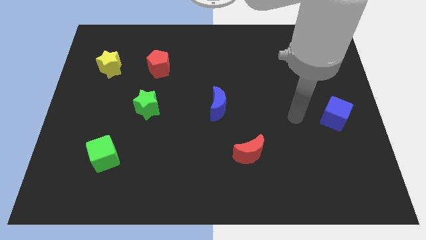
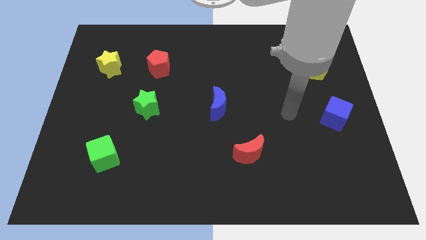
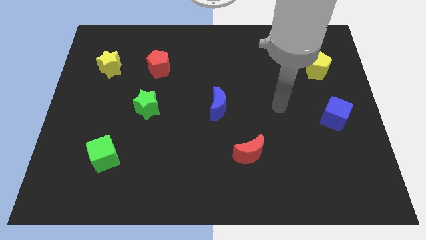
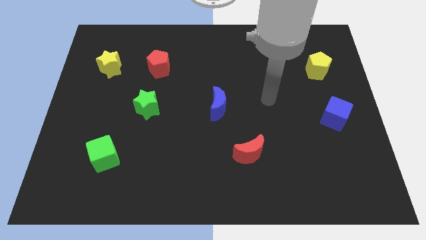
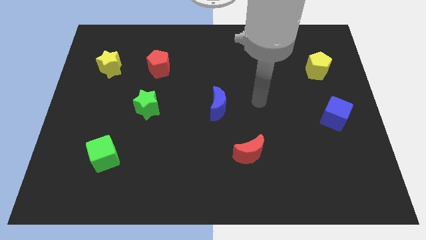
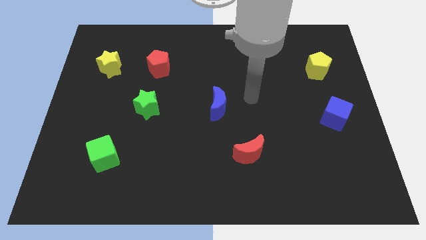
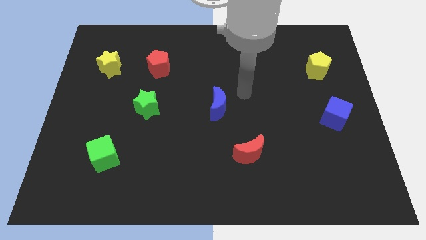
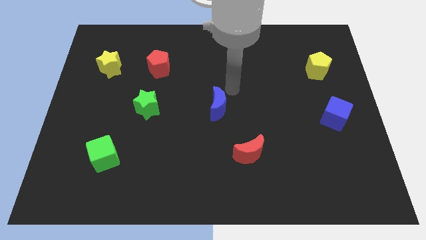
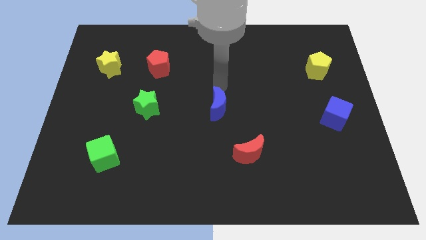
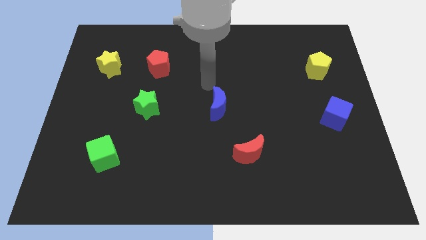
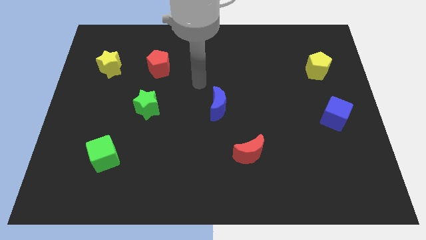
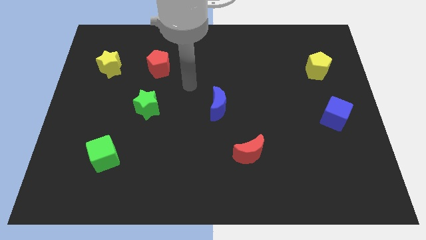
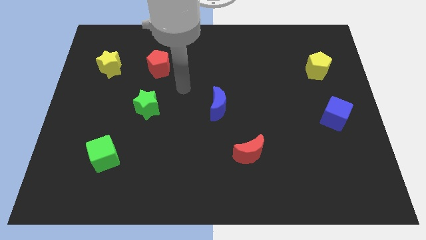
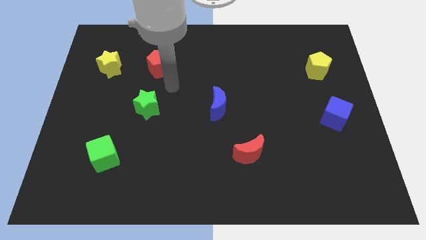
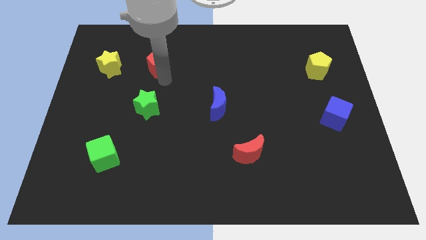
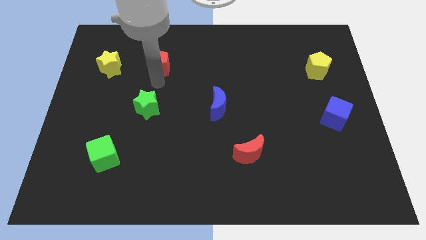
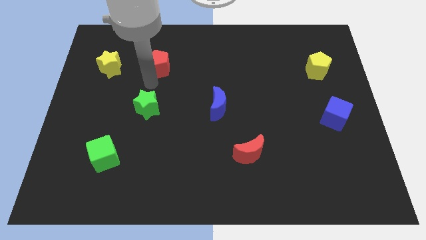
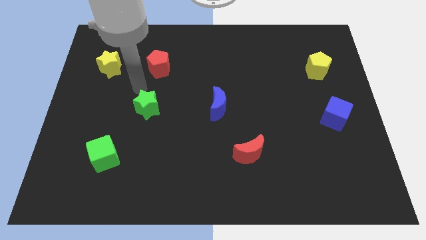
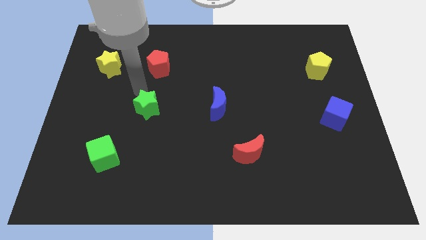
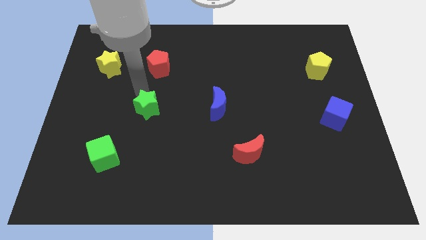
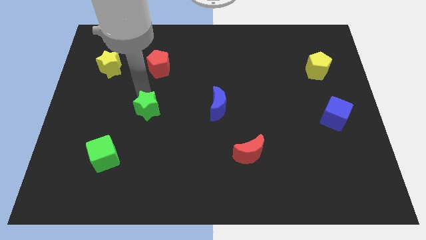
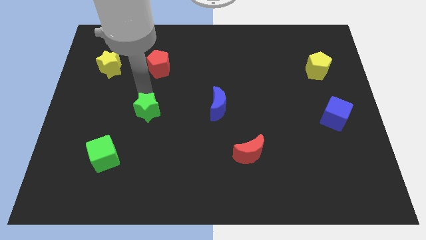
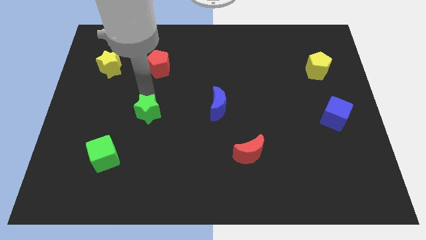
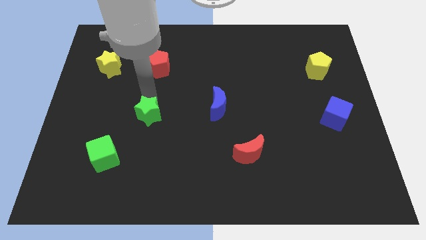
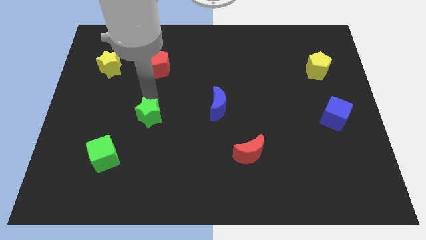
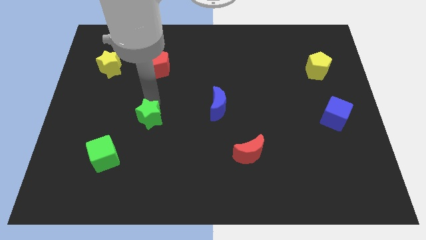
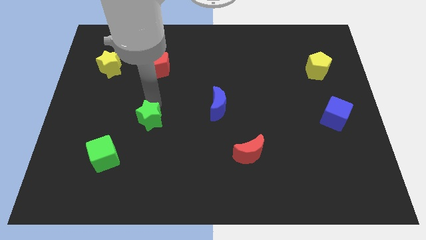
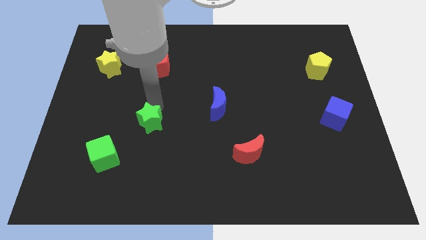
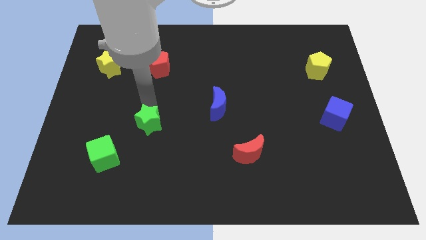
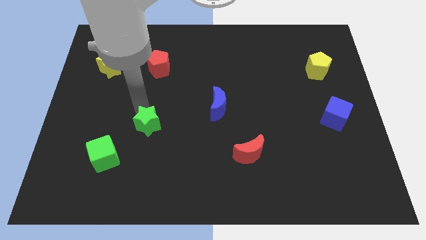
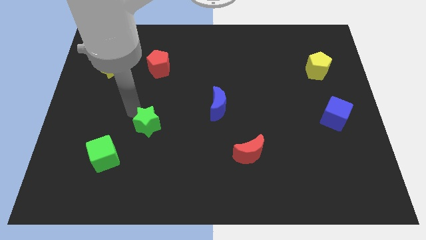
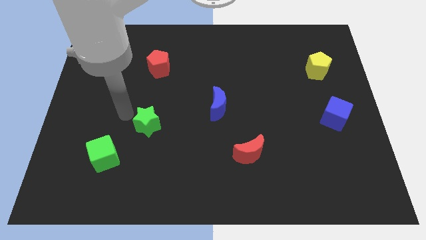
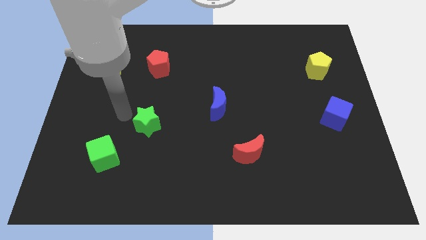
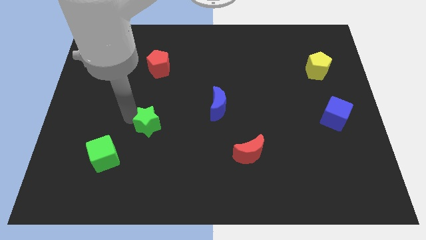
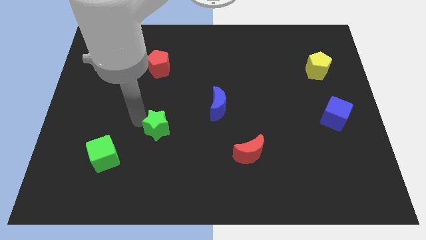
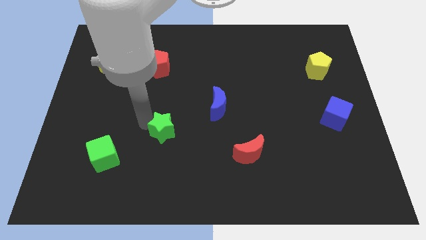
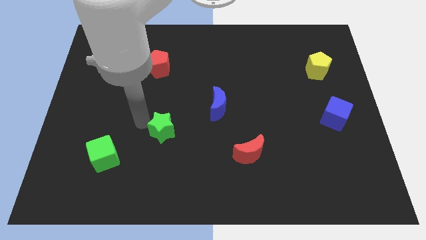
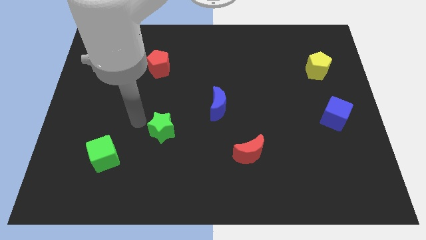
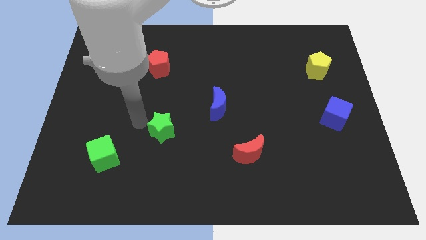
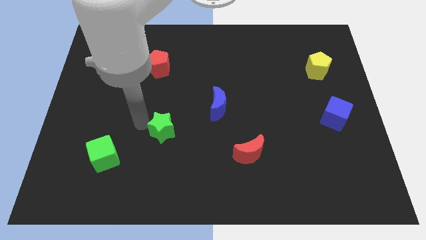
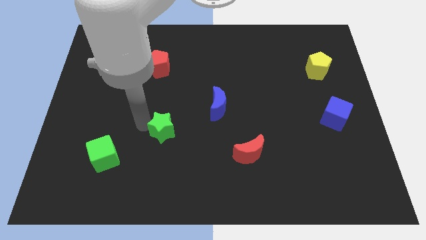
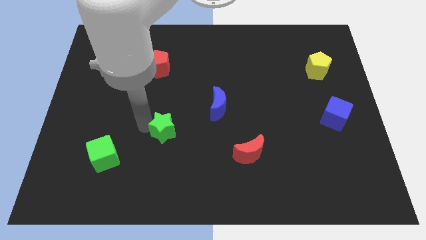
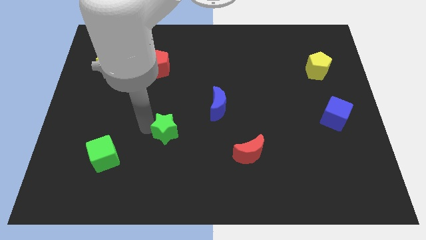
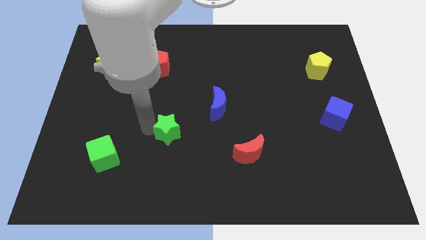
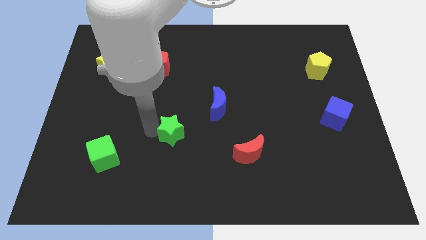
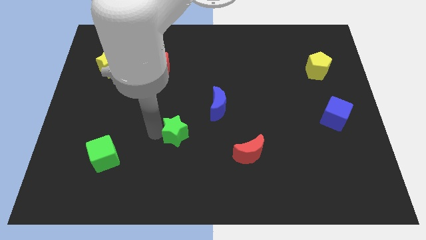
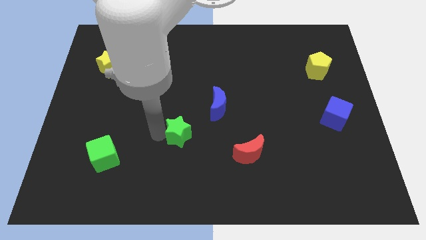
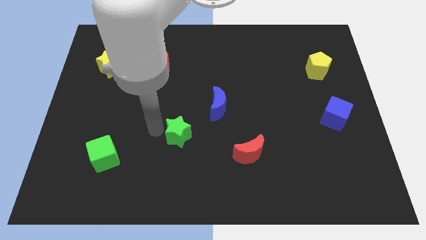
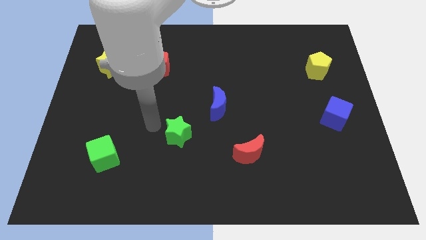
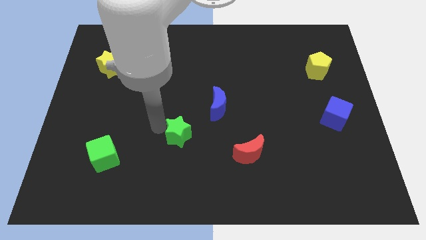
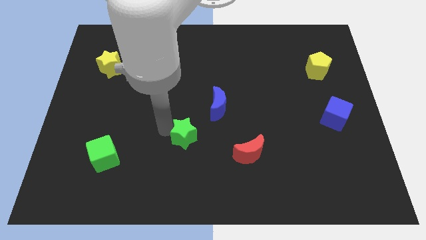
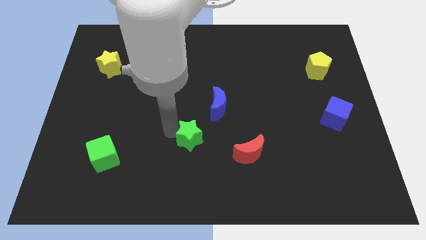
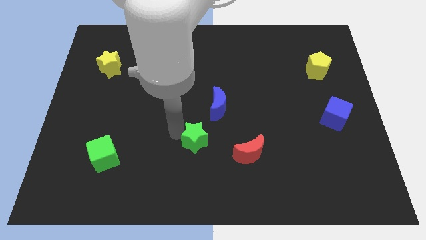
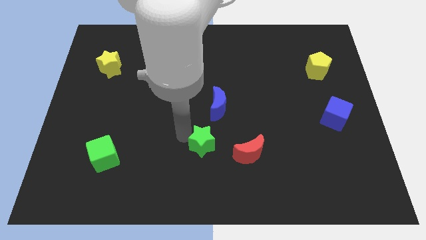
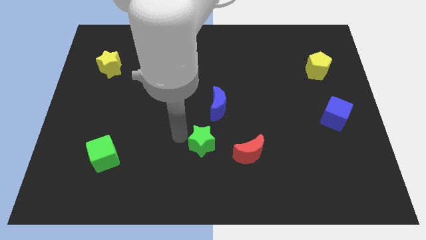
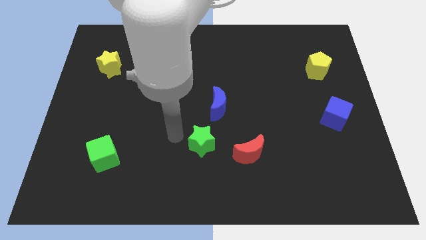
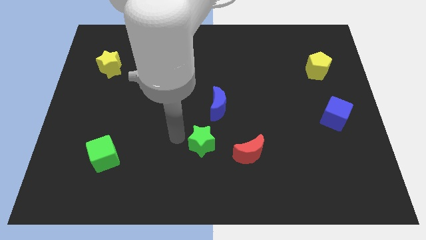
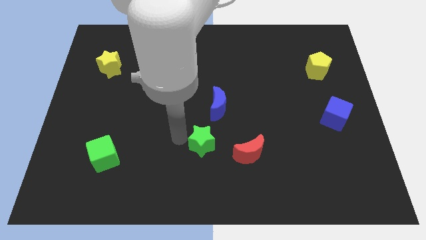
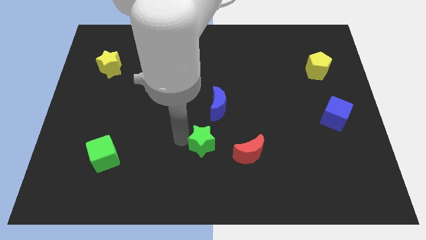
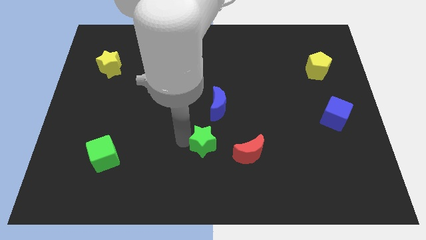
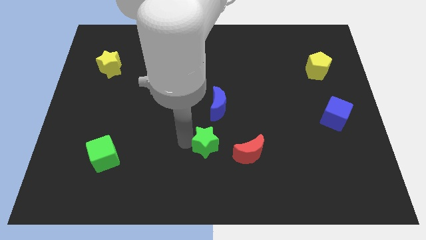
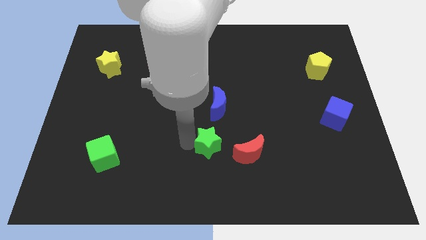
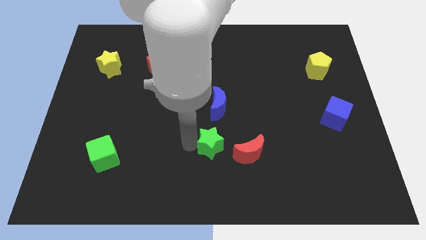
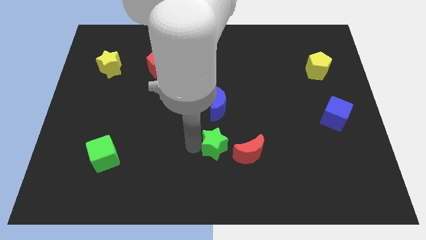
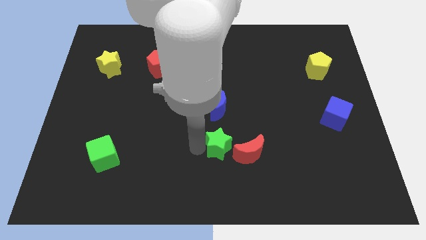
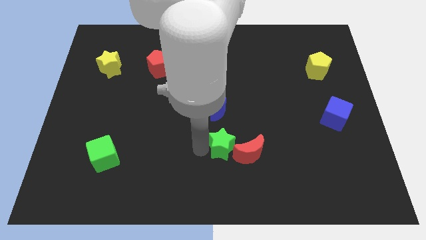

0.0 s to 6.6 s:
move the green star towards the red moon
